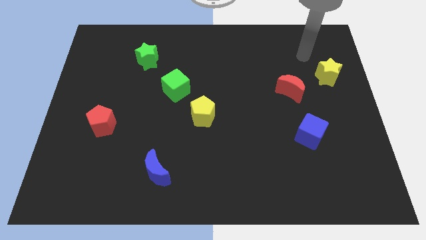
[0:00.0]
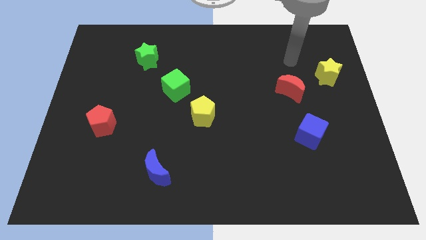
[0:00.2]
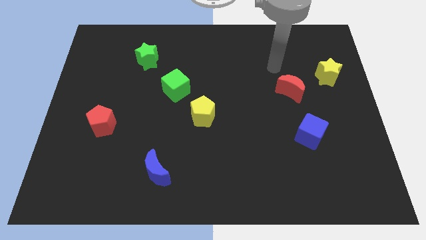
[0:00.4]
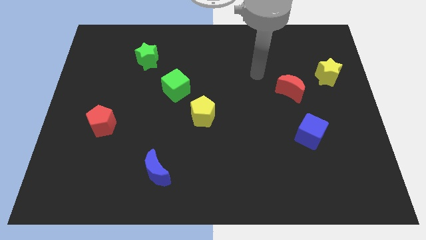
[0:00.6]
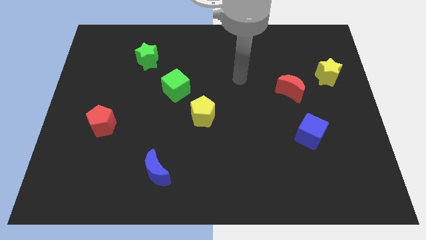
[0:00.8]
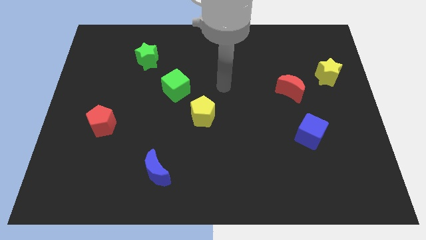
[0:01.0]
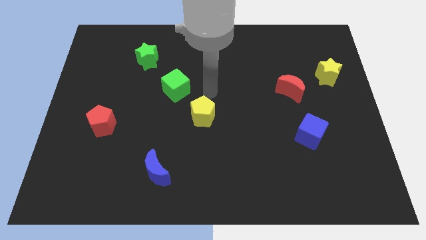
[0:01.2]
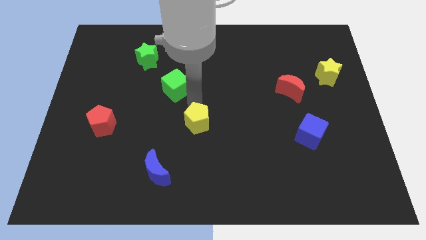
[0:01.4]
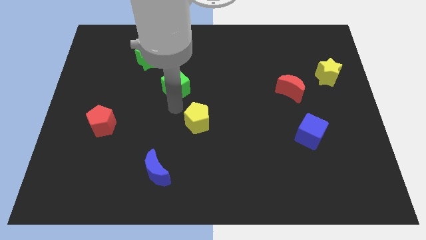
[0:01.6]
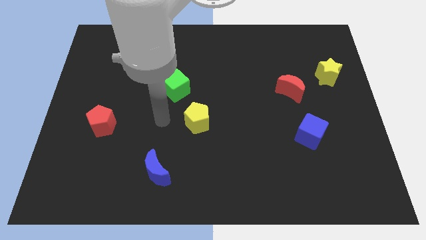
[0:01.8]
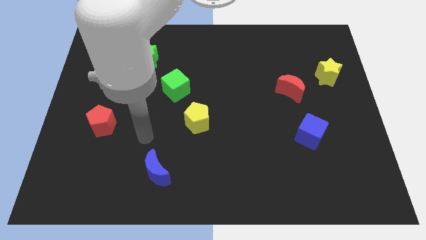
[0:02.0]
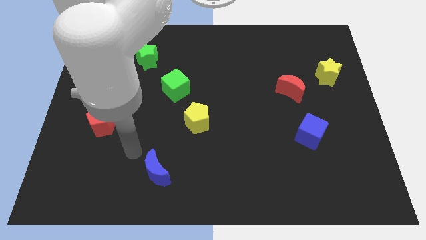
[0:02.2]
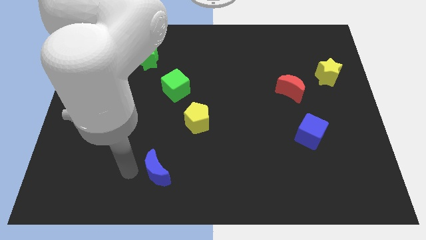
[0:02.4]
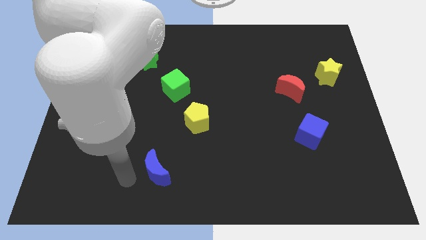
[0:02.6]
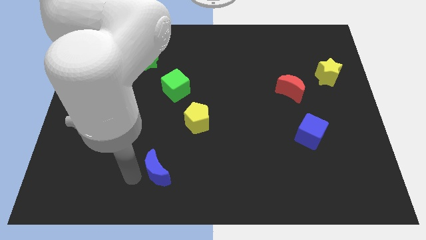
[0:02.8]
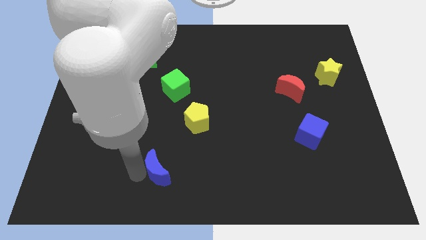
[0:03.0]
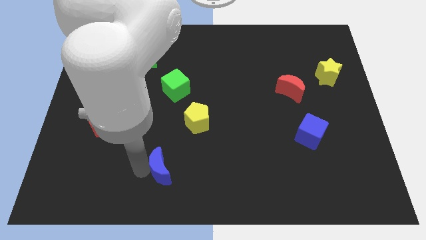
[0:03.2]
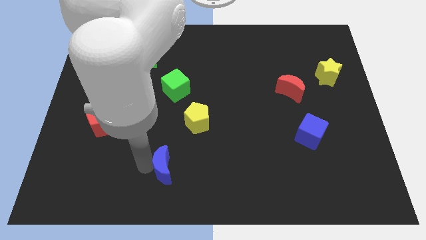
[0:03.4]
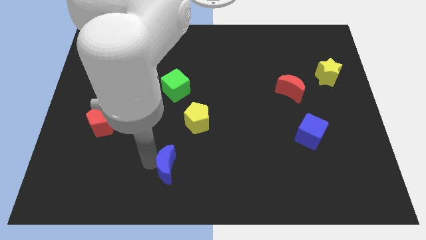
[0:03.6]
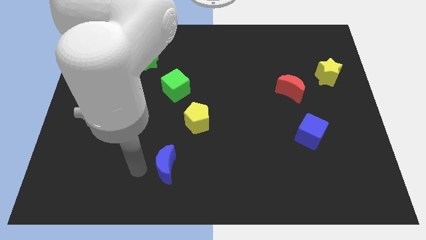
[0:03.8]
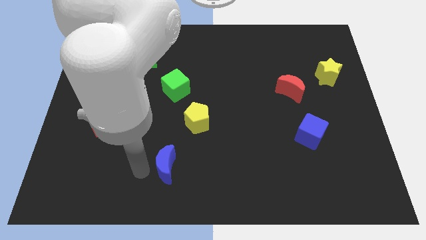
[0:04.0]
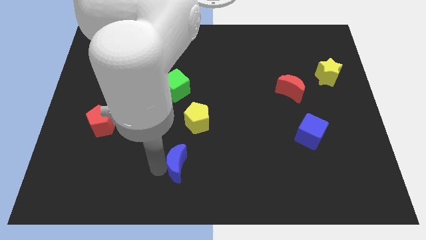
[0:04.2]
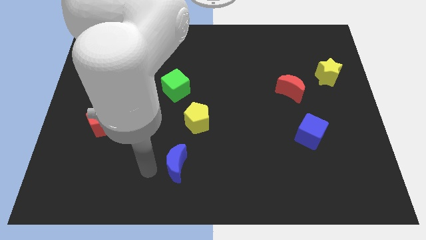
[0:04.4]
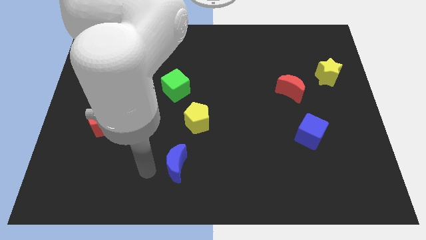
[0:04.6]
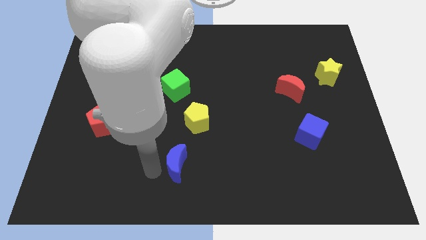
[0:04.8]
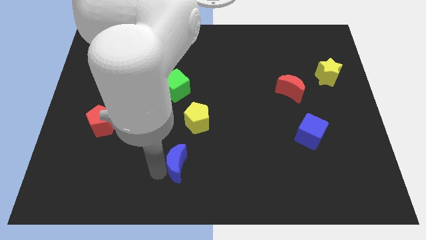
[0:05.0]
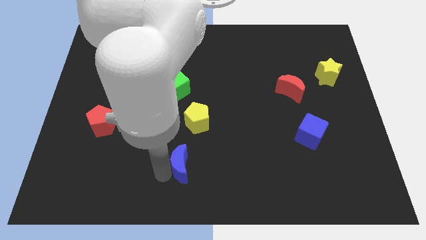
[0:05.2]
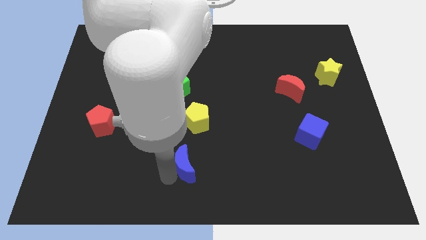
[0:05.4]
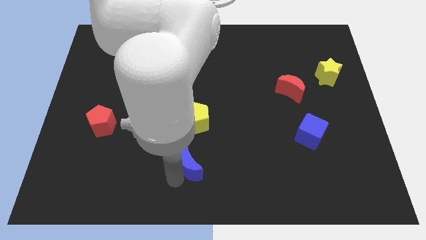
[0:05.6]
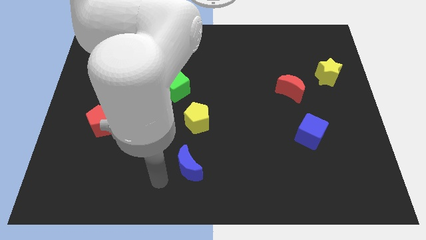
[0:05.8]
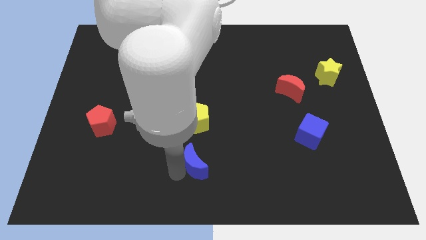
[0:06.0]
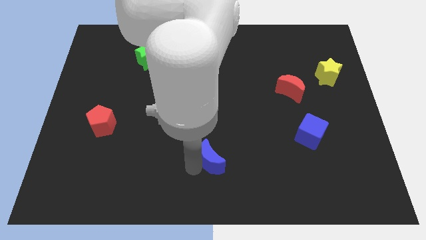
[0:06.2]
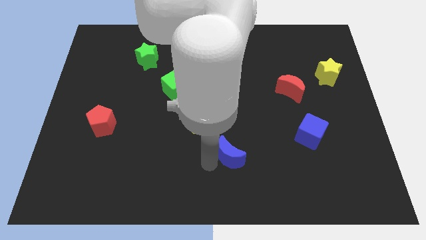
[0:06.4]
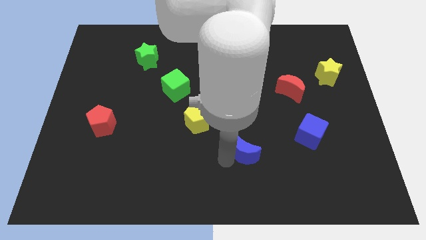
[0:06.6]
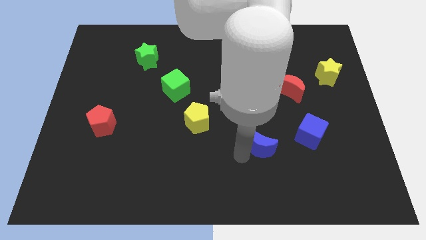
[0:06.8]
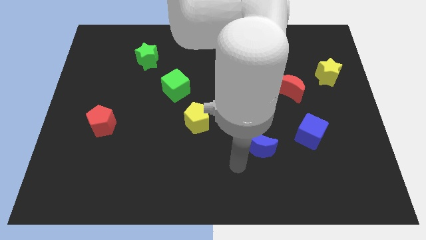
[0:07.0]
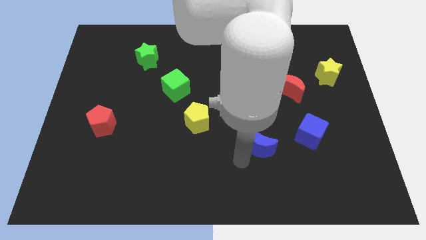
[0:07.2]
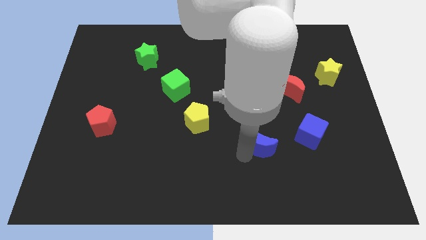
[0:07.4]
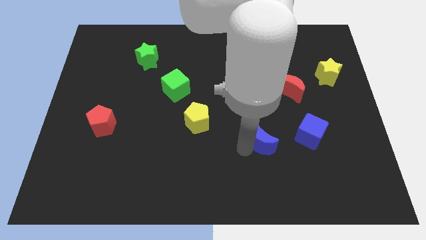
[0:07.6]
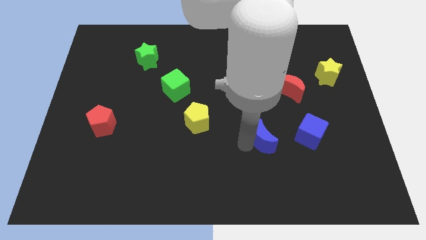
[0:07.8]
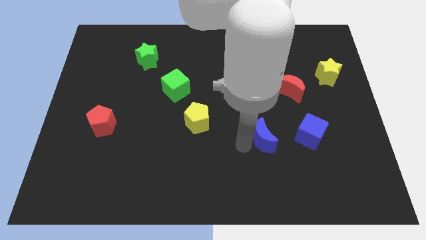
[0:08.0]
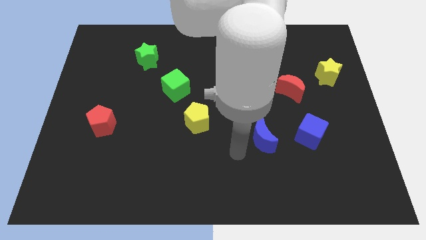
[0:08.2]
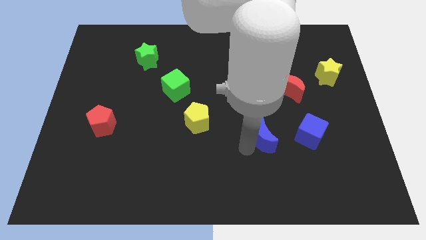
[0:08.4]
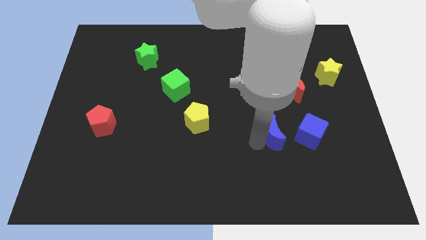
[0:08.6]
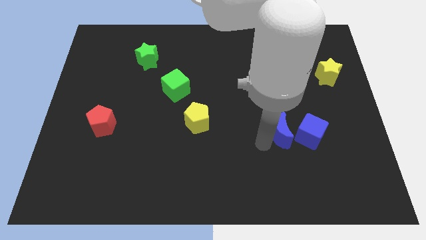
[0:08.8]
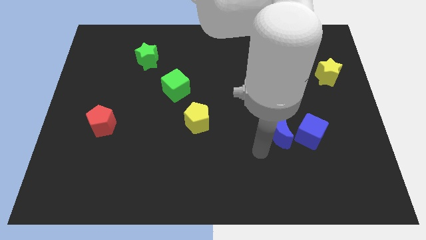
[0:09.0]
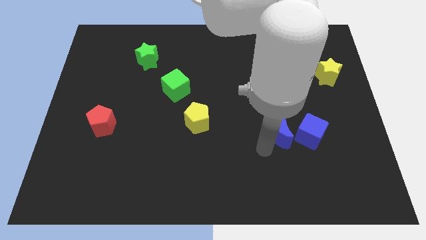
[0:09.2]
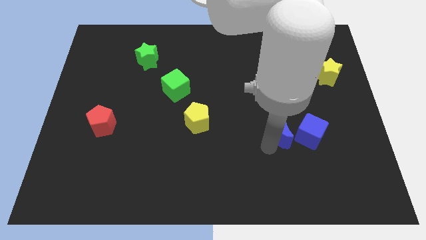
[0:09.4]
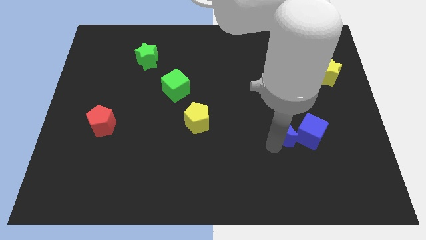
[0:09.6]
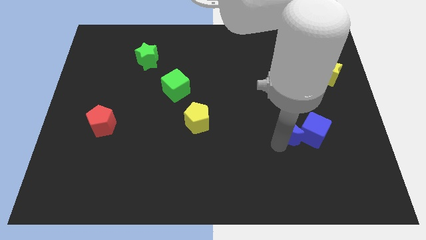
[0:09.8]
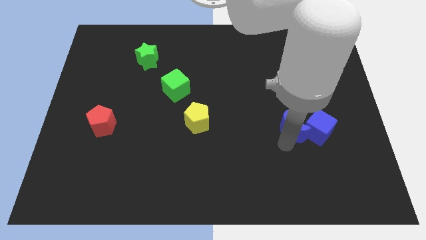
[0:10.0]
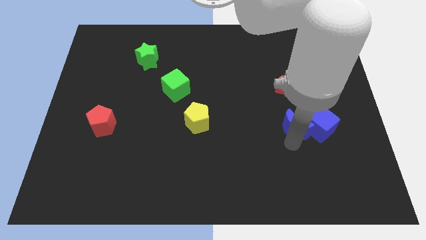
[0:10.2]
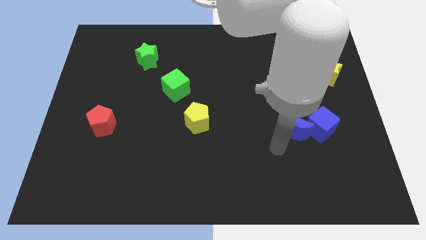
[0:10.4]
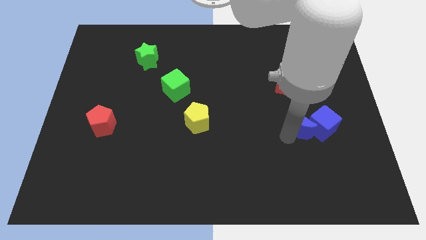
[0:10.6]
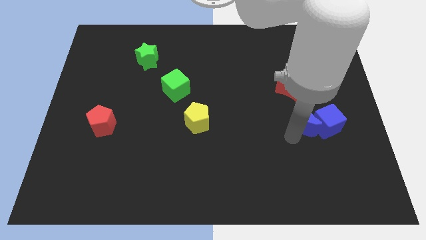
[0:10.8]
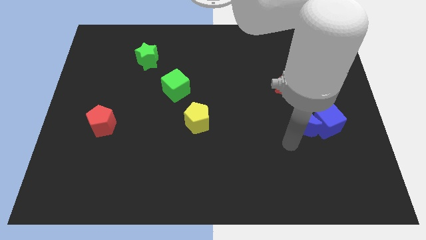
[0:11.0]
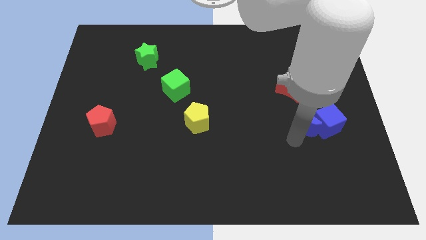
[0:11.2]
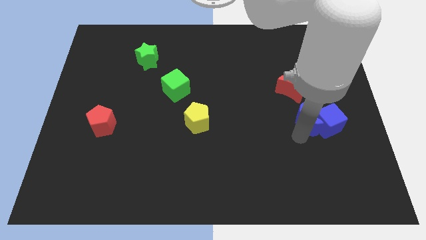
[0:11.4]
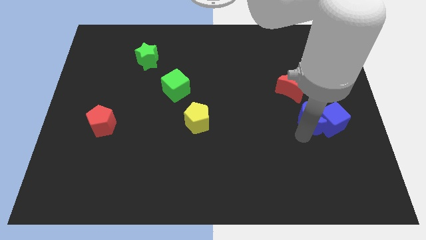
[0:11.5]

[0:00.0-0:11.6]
push the blue moon to the bottom right side of the red moon

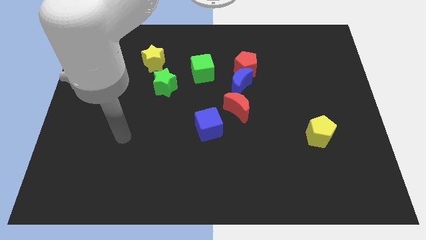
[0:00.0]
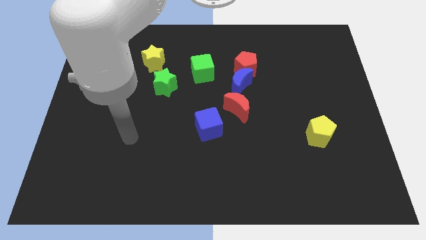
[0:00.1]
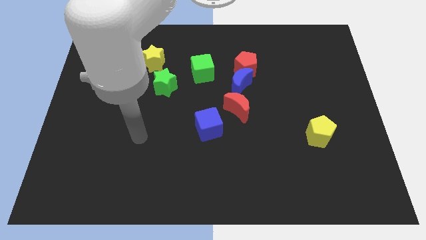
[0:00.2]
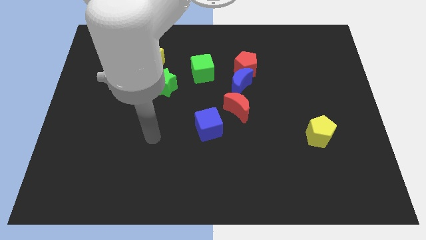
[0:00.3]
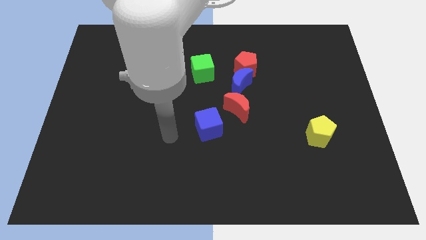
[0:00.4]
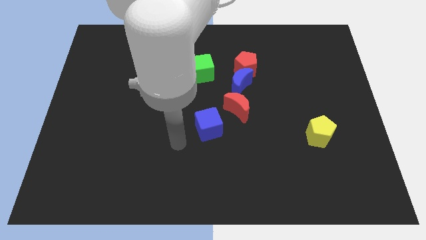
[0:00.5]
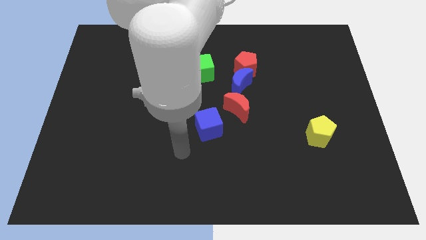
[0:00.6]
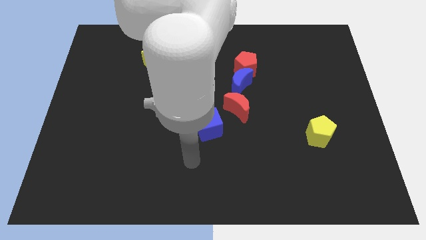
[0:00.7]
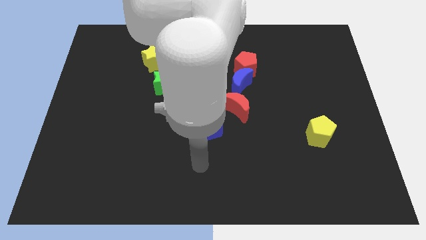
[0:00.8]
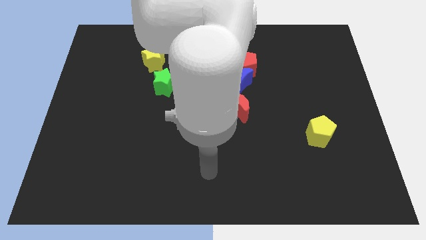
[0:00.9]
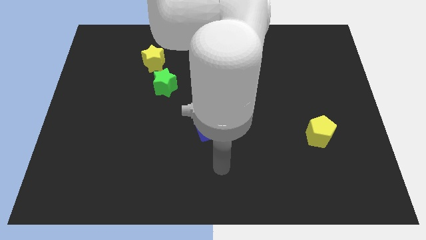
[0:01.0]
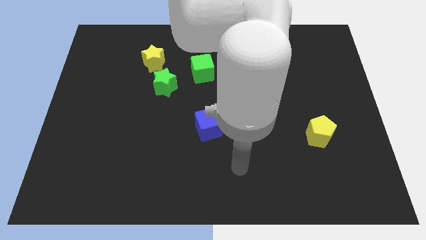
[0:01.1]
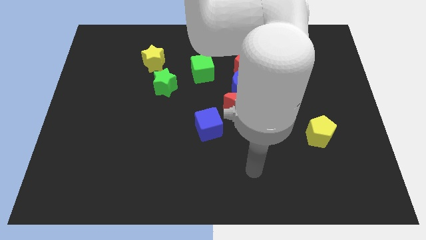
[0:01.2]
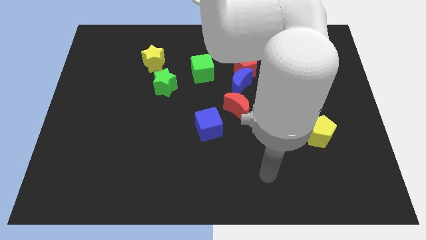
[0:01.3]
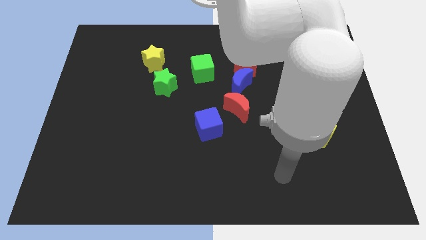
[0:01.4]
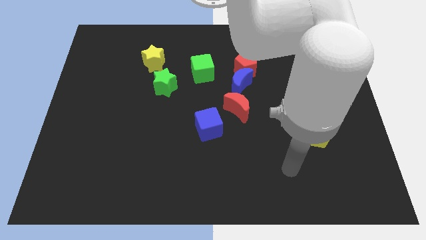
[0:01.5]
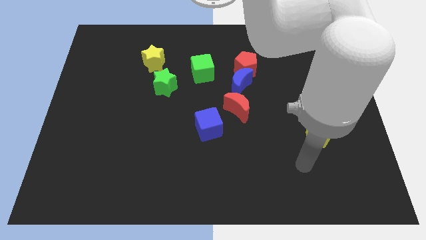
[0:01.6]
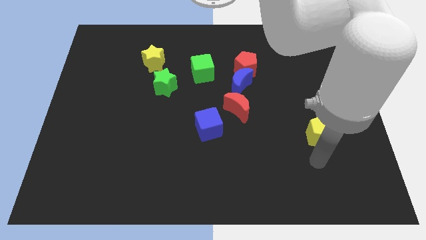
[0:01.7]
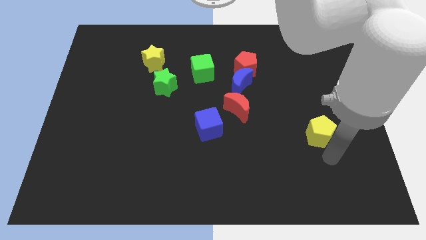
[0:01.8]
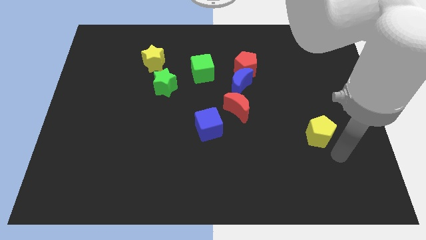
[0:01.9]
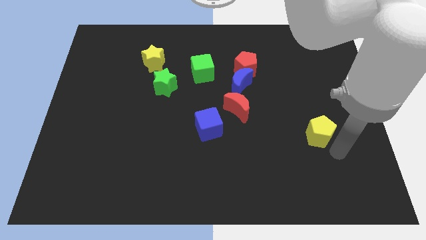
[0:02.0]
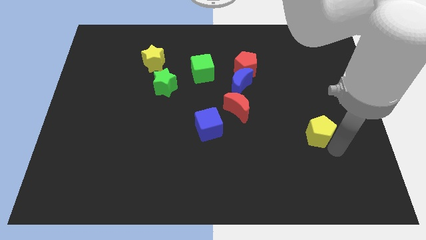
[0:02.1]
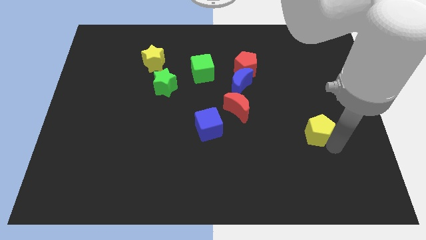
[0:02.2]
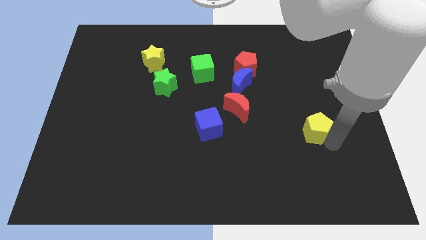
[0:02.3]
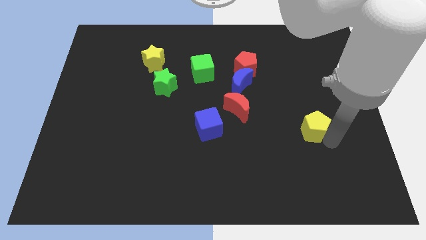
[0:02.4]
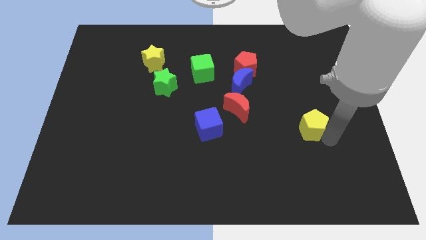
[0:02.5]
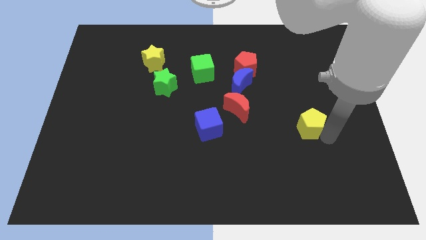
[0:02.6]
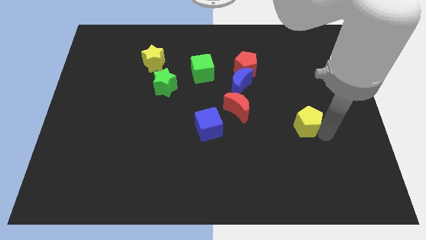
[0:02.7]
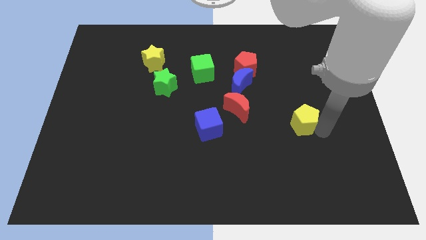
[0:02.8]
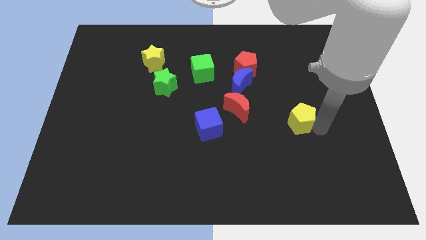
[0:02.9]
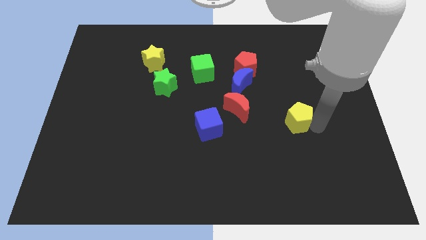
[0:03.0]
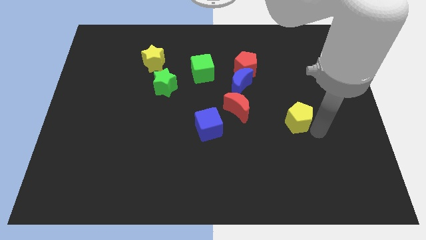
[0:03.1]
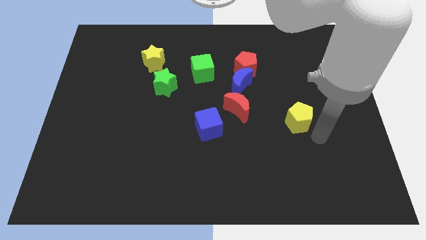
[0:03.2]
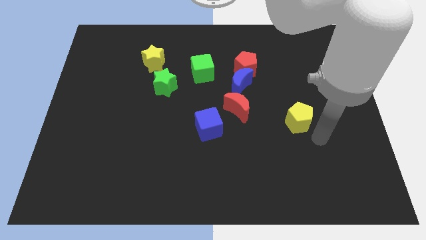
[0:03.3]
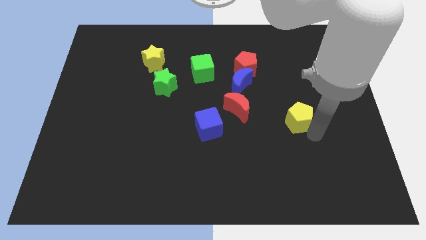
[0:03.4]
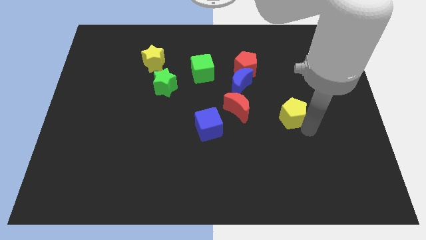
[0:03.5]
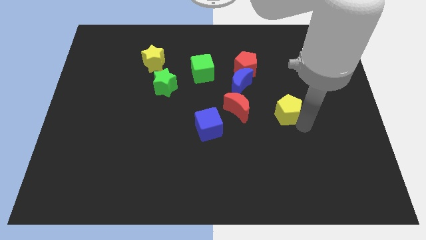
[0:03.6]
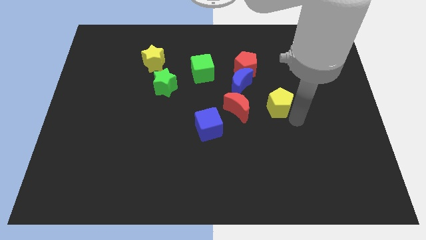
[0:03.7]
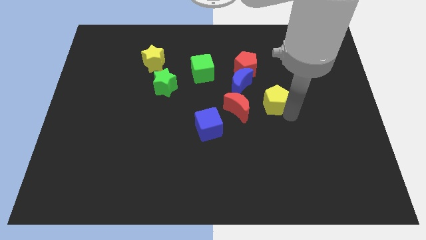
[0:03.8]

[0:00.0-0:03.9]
slide the yellow pentagon diagonally up and to the right of the red moon
